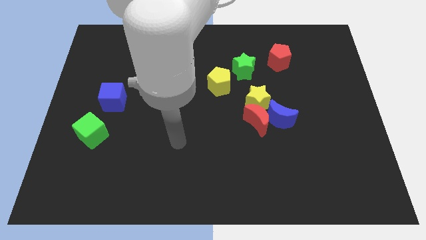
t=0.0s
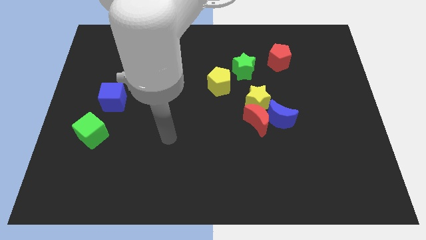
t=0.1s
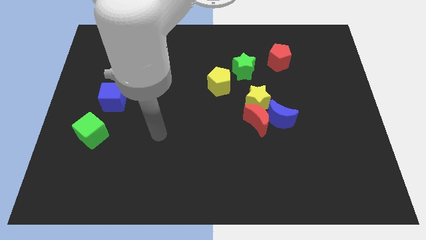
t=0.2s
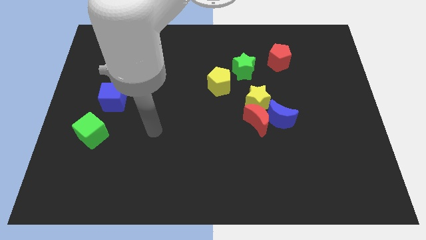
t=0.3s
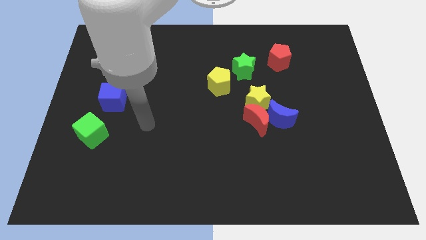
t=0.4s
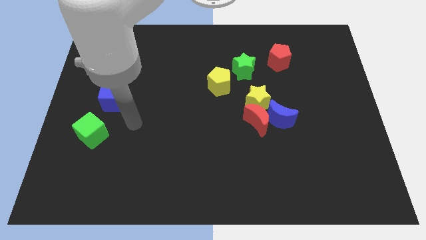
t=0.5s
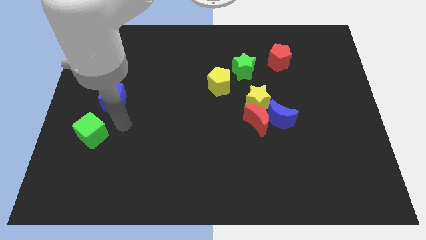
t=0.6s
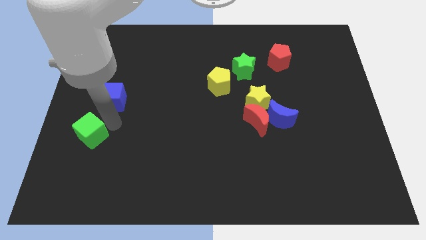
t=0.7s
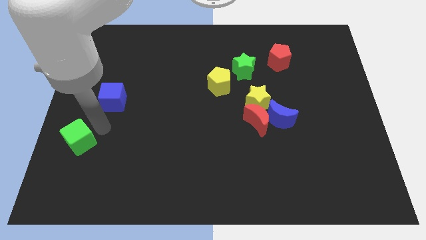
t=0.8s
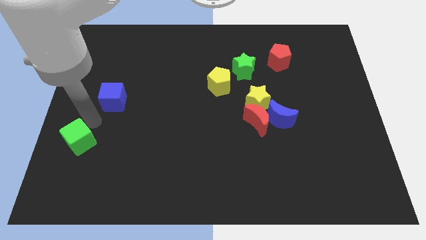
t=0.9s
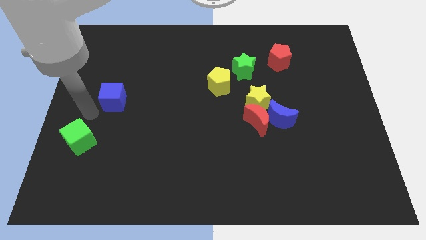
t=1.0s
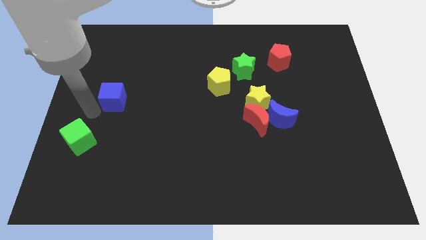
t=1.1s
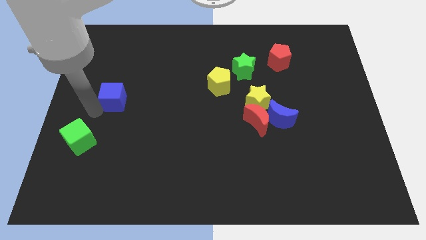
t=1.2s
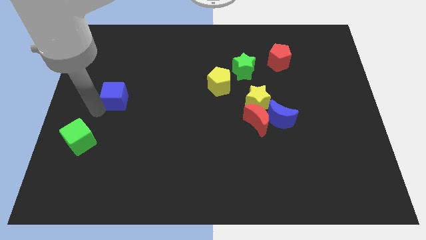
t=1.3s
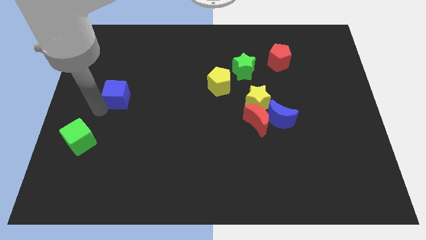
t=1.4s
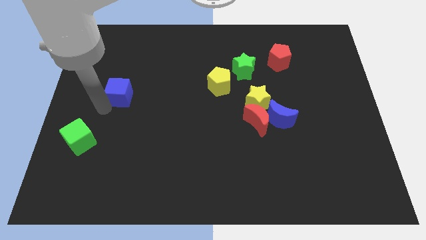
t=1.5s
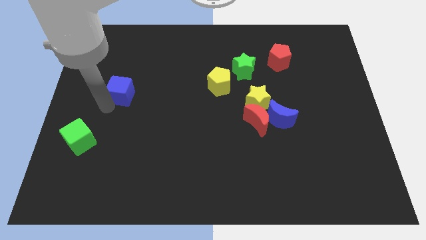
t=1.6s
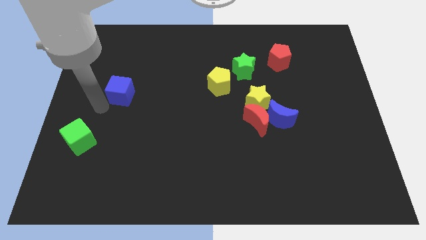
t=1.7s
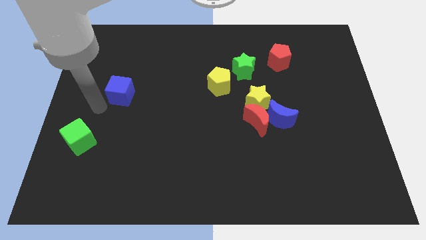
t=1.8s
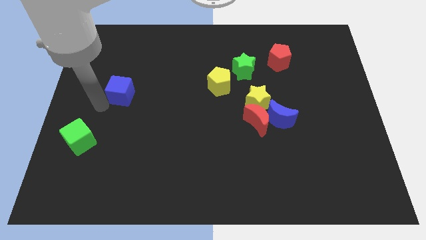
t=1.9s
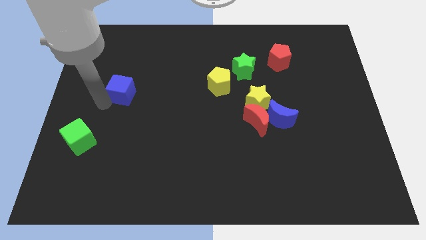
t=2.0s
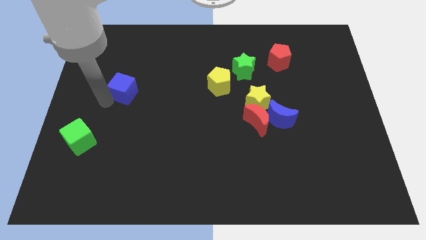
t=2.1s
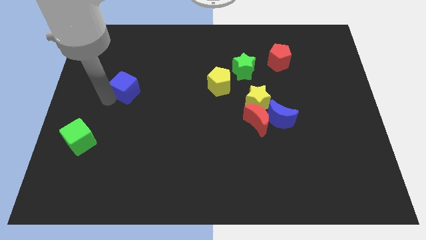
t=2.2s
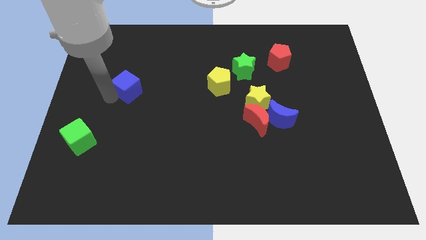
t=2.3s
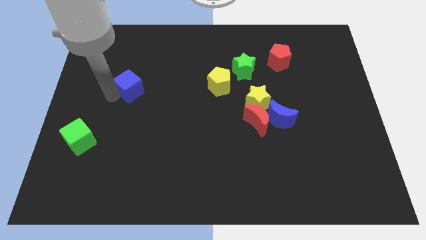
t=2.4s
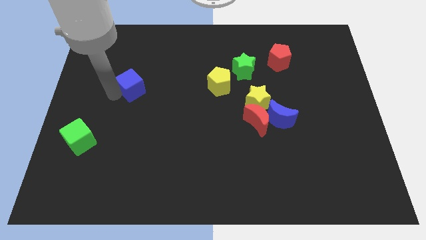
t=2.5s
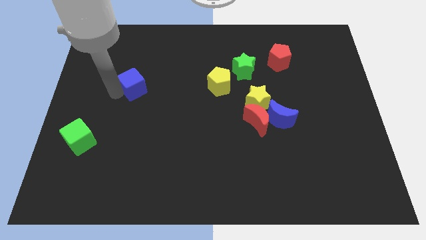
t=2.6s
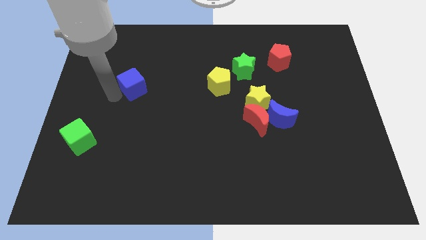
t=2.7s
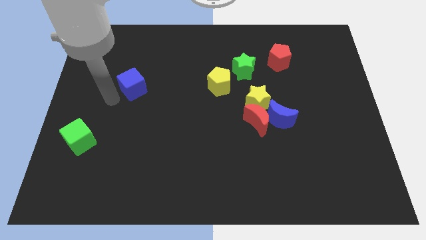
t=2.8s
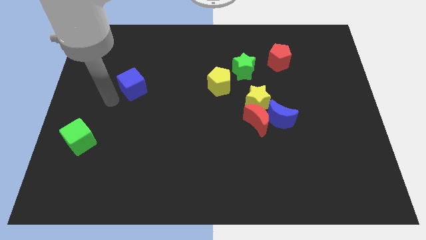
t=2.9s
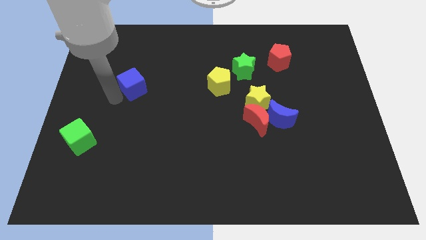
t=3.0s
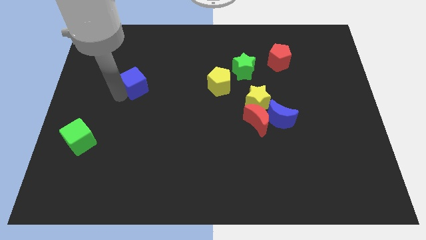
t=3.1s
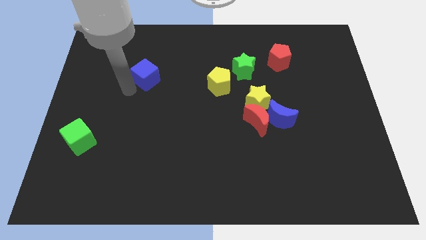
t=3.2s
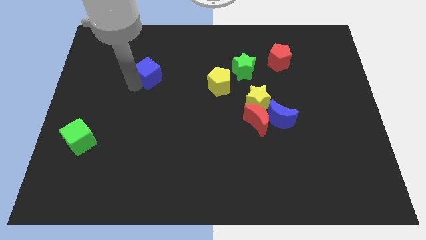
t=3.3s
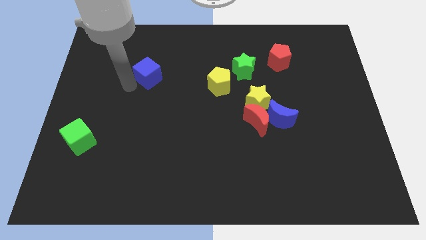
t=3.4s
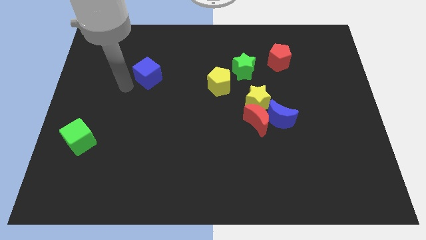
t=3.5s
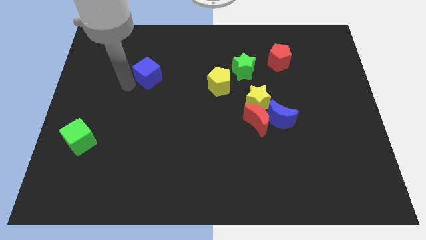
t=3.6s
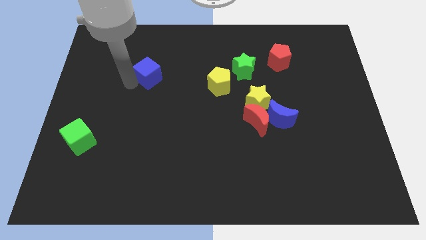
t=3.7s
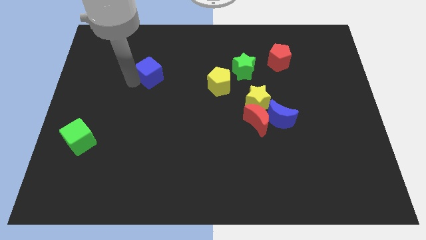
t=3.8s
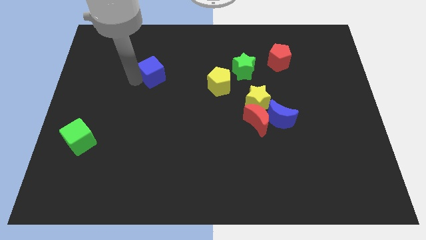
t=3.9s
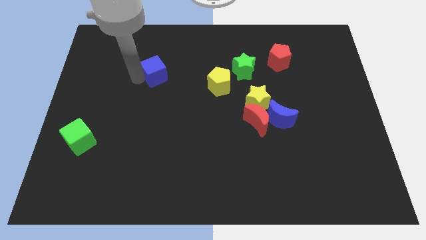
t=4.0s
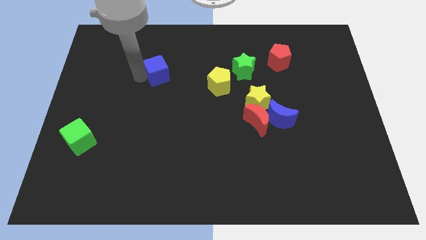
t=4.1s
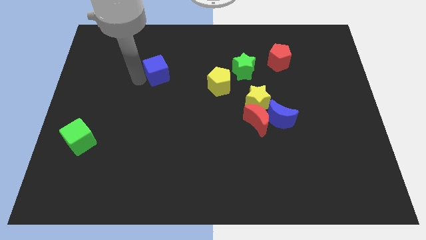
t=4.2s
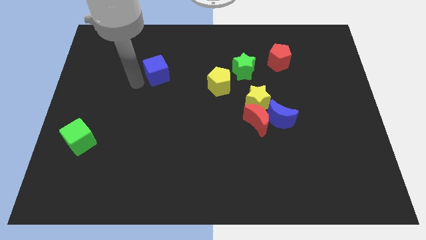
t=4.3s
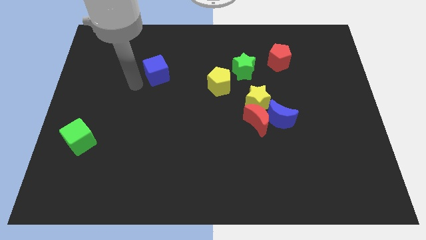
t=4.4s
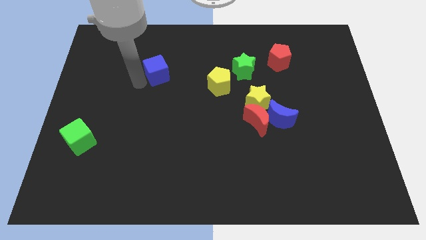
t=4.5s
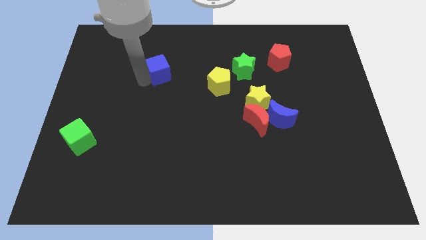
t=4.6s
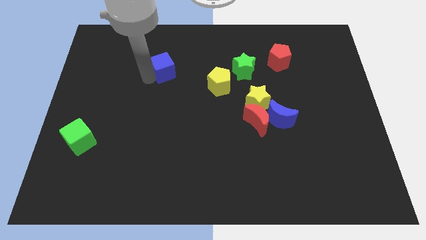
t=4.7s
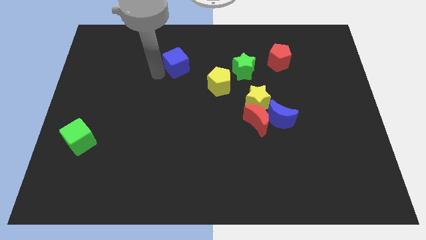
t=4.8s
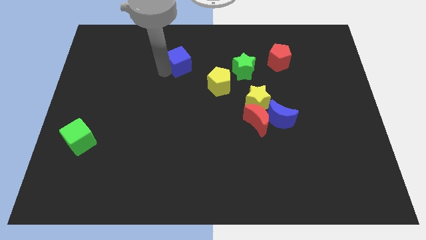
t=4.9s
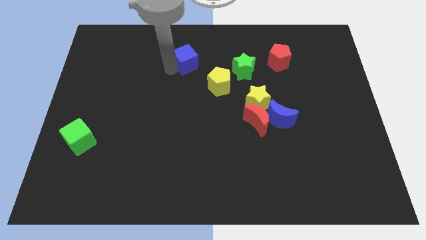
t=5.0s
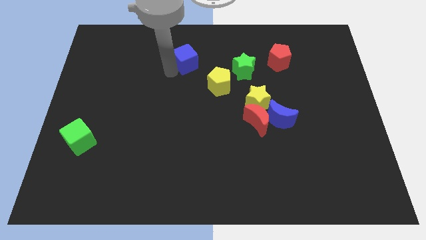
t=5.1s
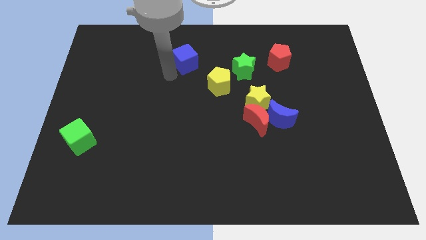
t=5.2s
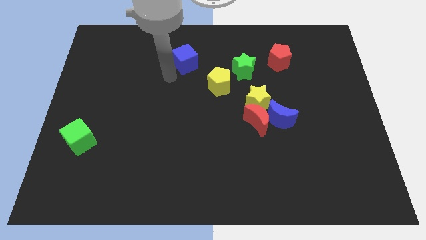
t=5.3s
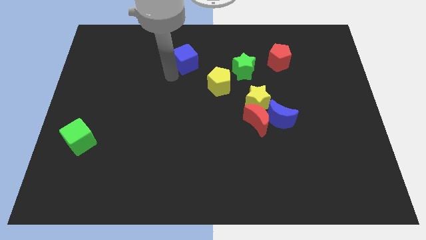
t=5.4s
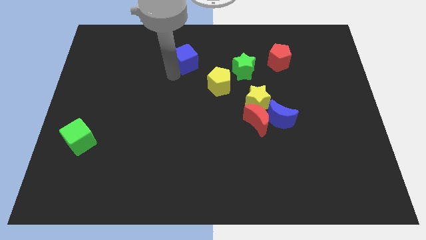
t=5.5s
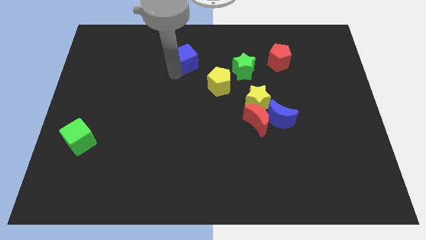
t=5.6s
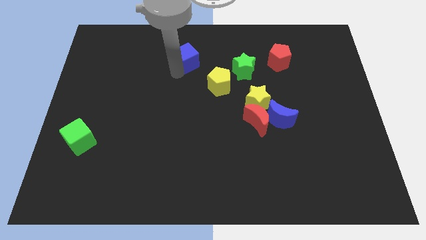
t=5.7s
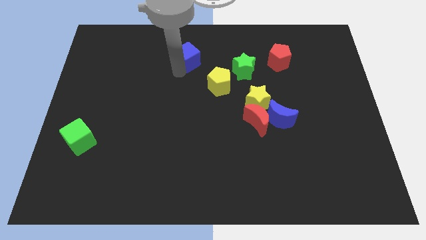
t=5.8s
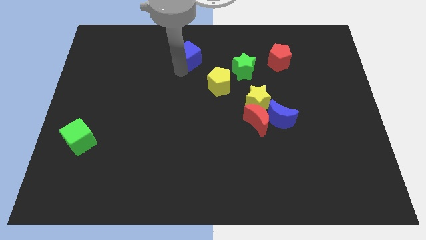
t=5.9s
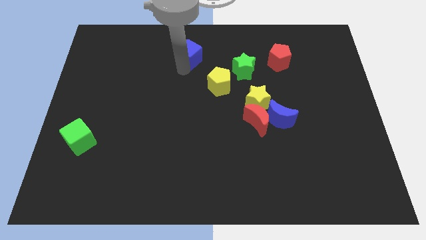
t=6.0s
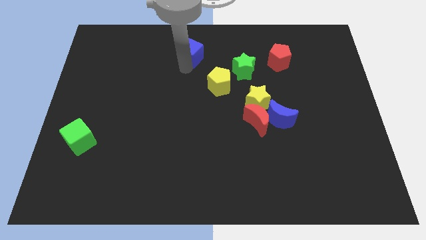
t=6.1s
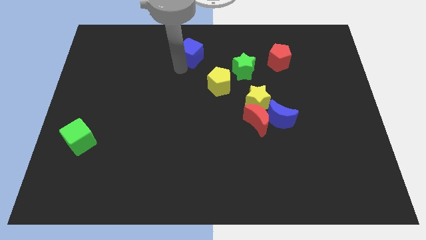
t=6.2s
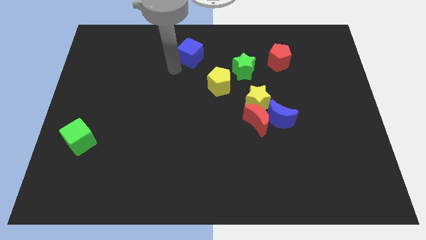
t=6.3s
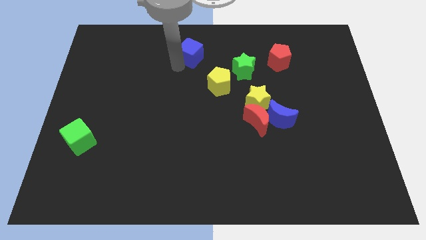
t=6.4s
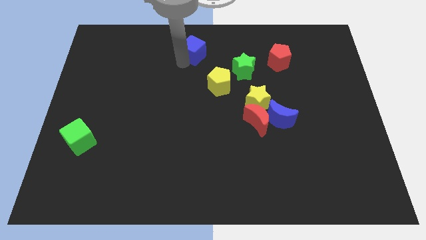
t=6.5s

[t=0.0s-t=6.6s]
push the blue cube to the towards your base
